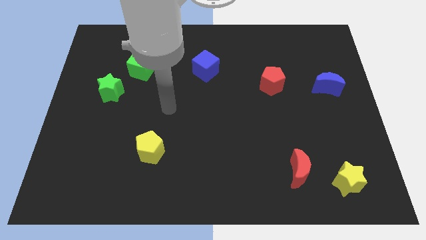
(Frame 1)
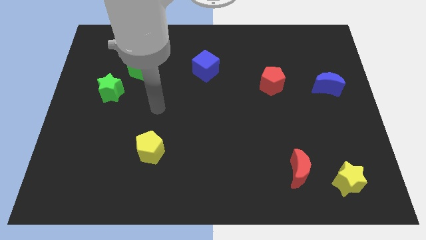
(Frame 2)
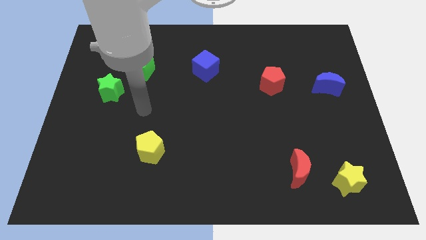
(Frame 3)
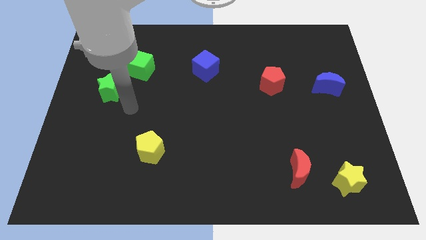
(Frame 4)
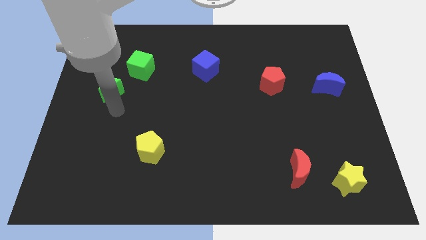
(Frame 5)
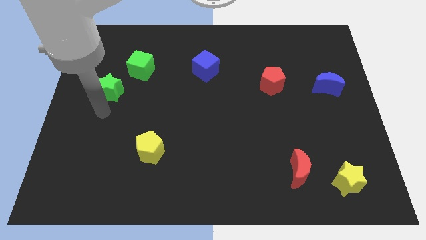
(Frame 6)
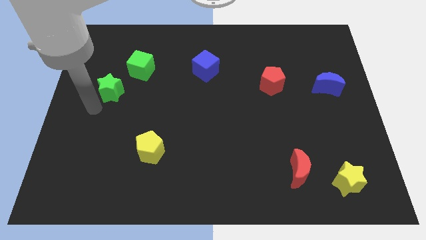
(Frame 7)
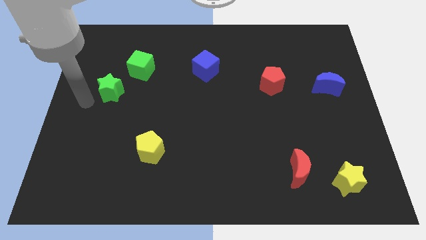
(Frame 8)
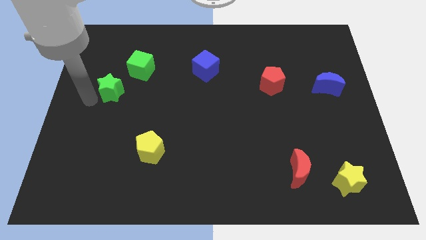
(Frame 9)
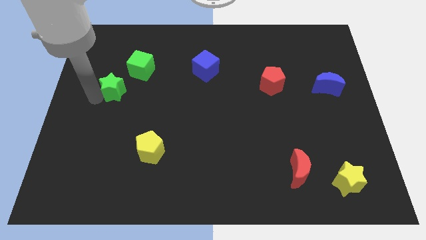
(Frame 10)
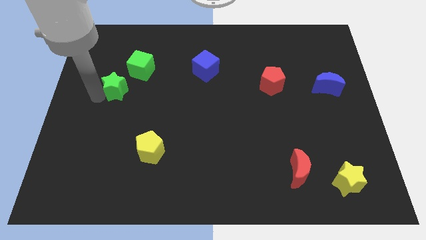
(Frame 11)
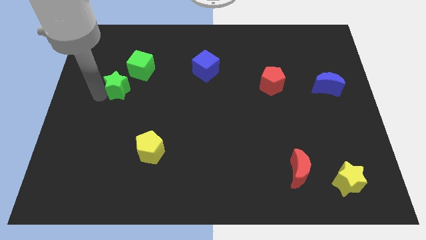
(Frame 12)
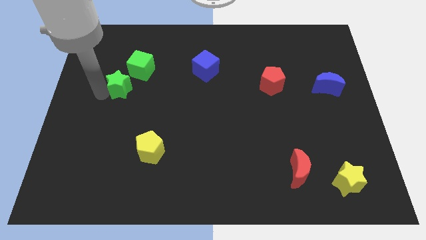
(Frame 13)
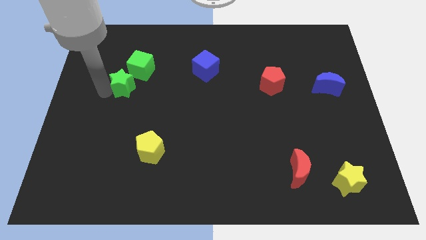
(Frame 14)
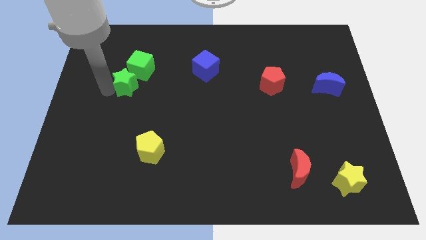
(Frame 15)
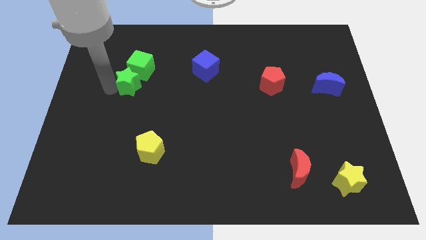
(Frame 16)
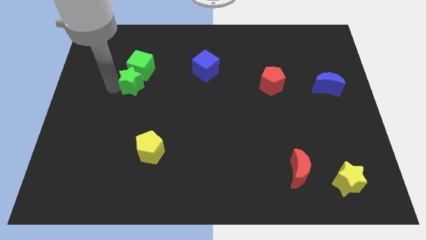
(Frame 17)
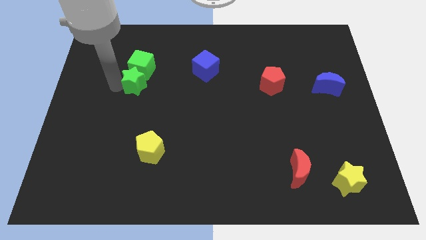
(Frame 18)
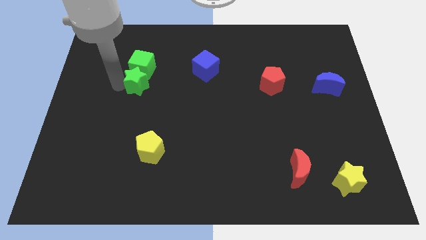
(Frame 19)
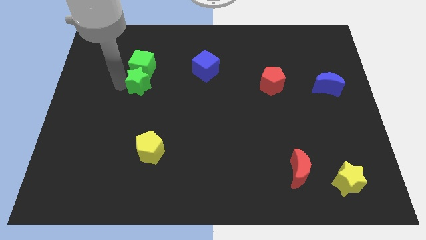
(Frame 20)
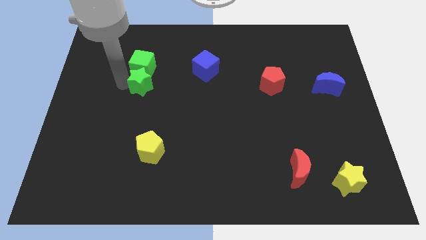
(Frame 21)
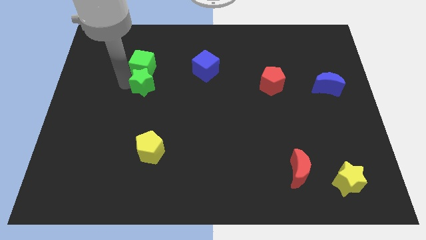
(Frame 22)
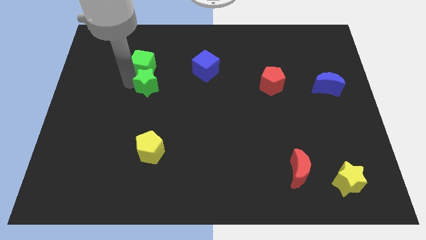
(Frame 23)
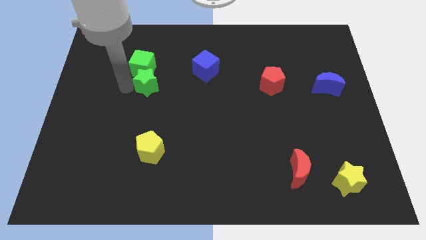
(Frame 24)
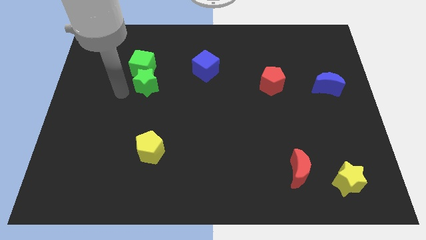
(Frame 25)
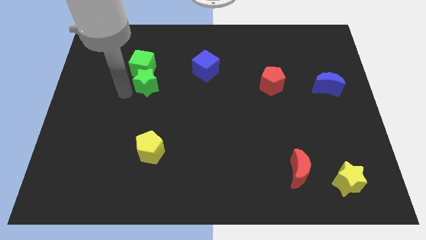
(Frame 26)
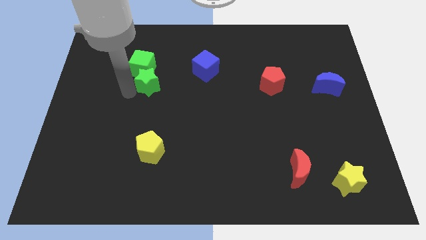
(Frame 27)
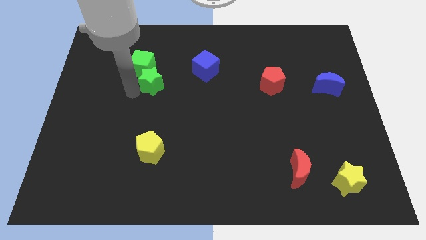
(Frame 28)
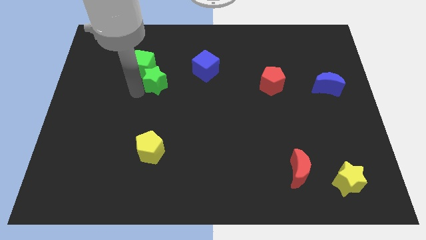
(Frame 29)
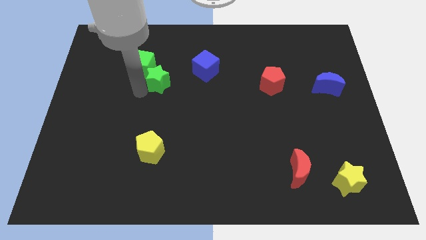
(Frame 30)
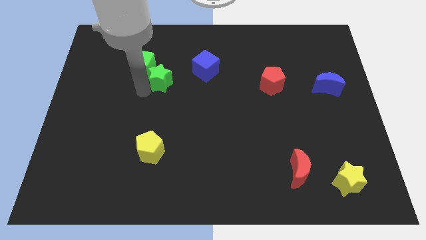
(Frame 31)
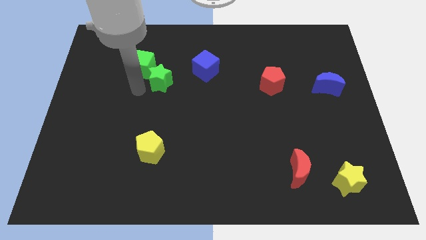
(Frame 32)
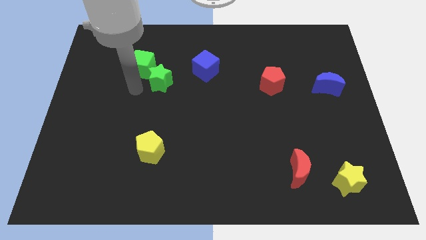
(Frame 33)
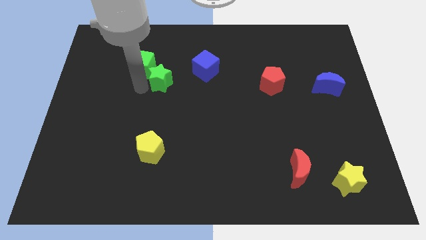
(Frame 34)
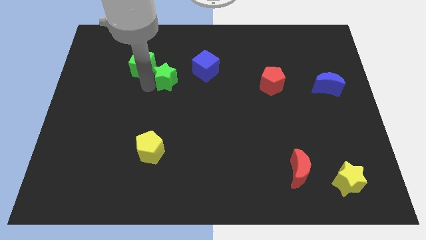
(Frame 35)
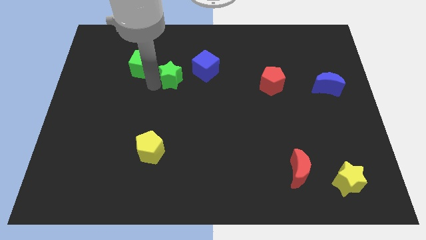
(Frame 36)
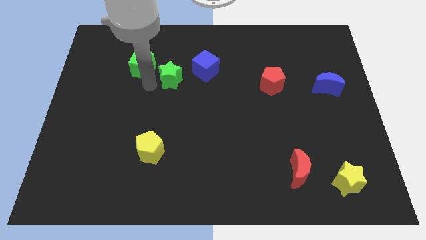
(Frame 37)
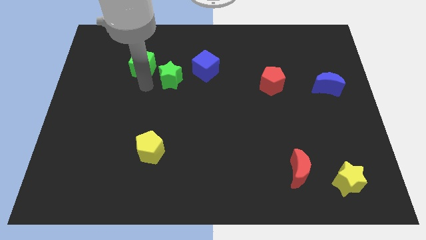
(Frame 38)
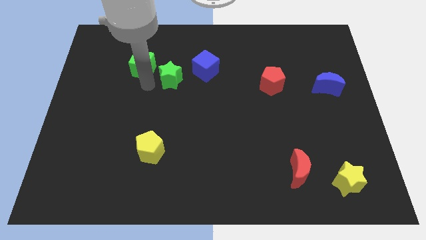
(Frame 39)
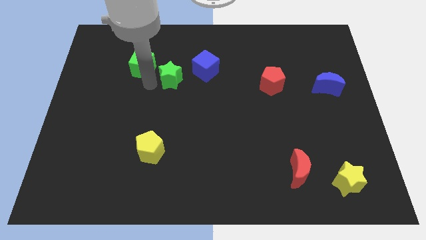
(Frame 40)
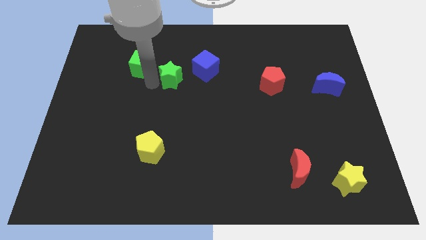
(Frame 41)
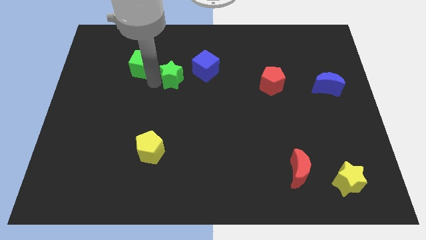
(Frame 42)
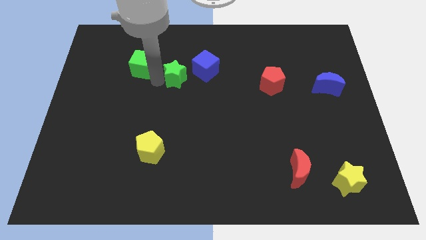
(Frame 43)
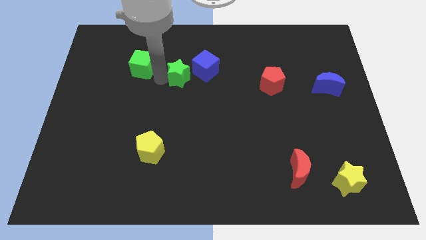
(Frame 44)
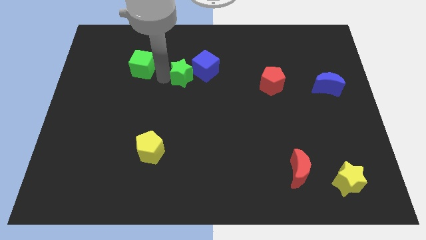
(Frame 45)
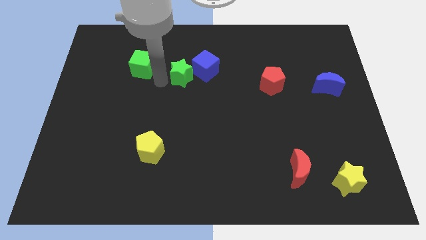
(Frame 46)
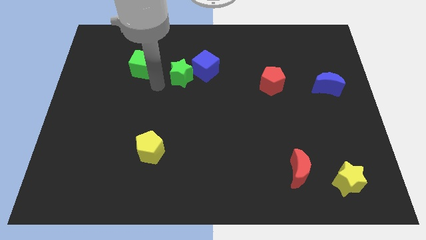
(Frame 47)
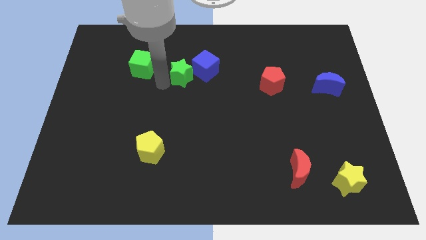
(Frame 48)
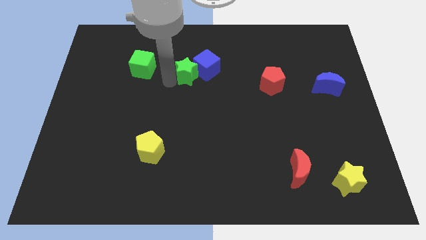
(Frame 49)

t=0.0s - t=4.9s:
move the green star towards the blue cube
